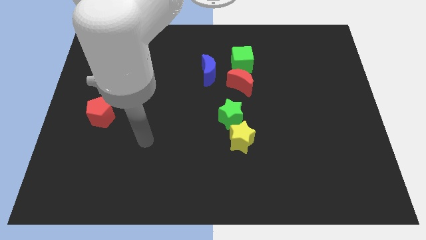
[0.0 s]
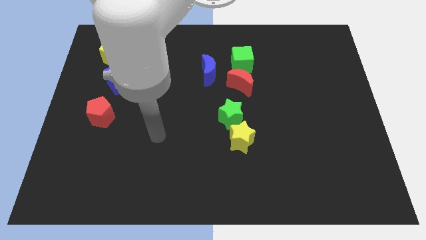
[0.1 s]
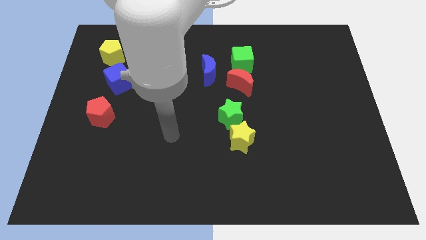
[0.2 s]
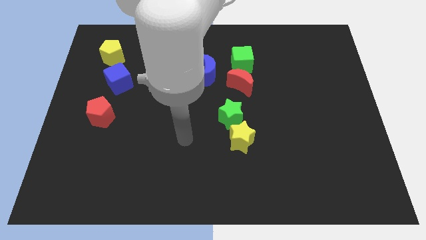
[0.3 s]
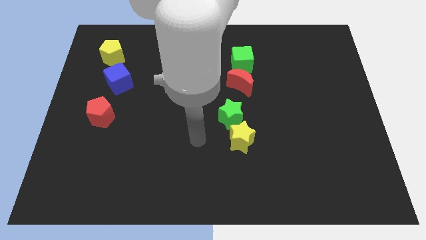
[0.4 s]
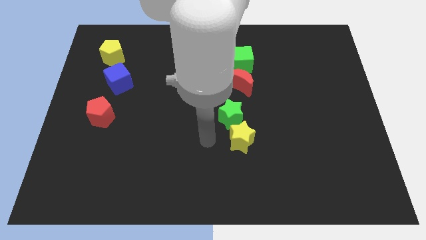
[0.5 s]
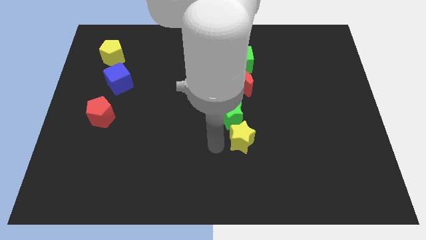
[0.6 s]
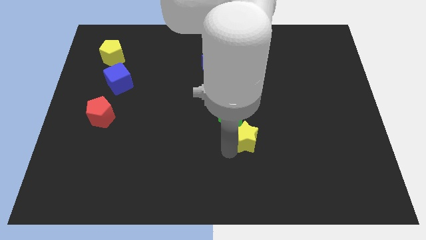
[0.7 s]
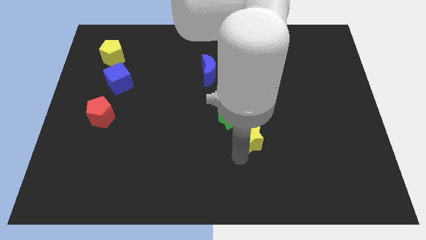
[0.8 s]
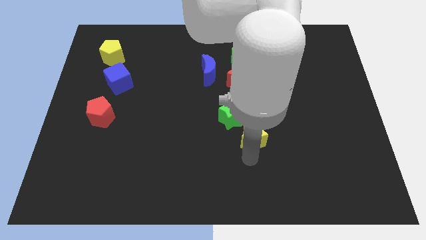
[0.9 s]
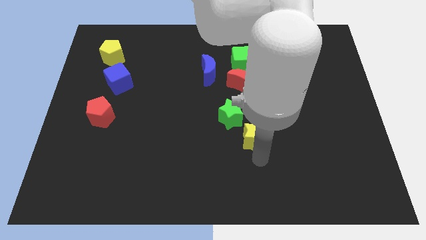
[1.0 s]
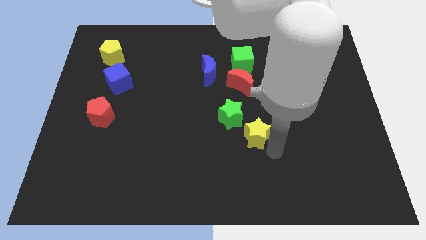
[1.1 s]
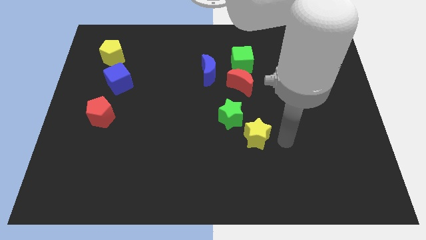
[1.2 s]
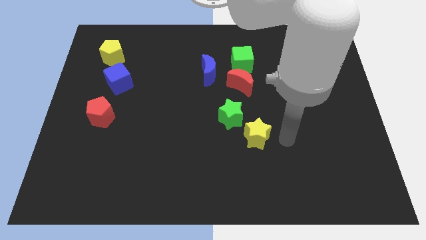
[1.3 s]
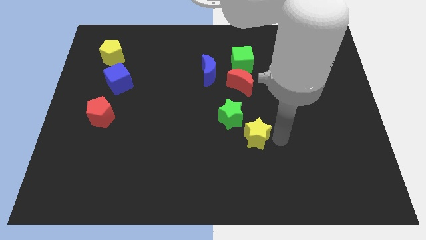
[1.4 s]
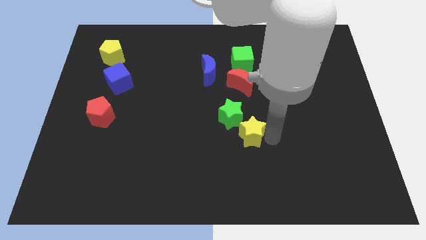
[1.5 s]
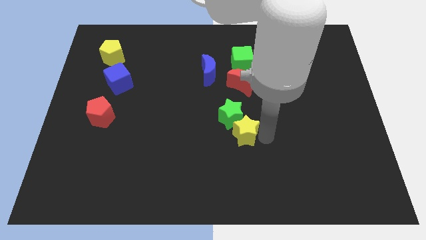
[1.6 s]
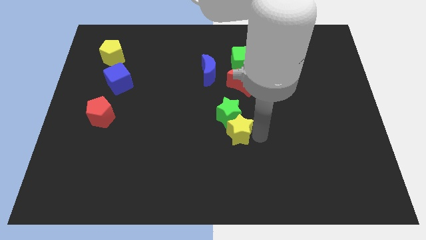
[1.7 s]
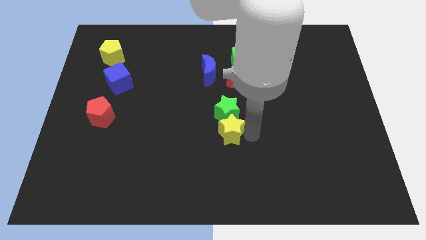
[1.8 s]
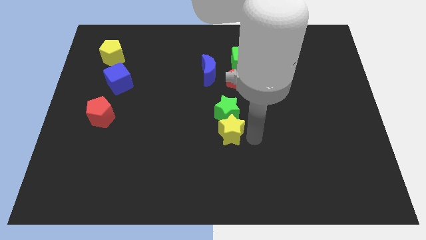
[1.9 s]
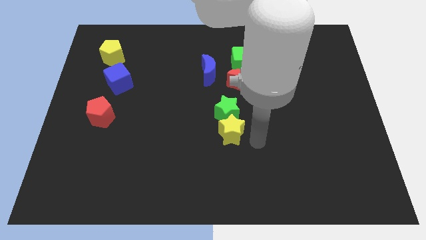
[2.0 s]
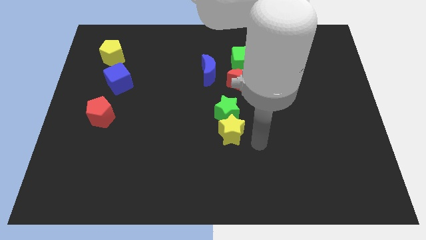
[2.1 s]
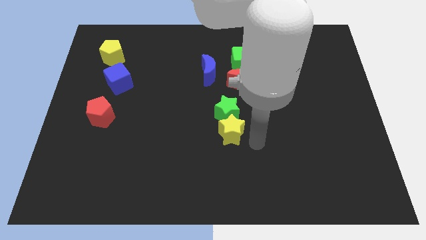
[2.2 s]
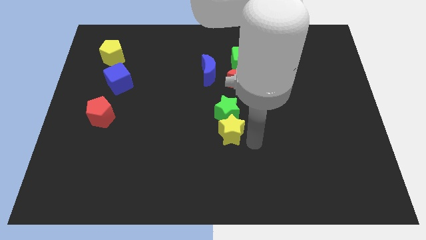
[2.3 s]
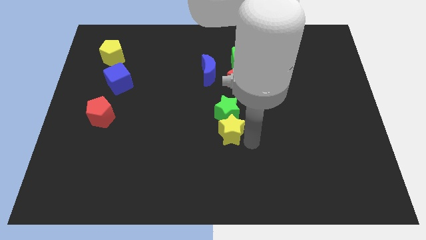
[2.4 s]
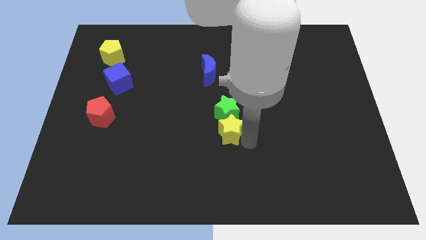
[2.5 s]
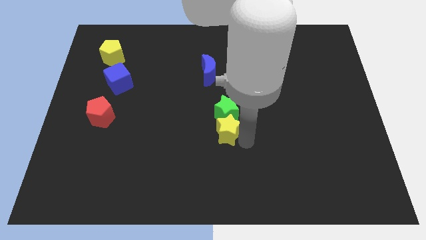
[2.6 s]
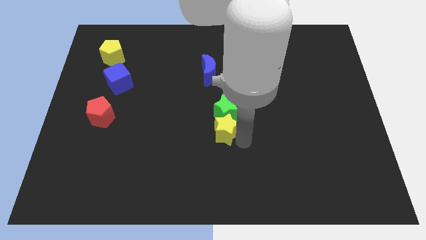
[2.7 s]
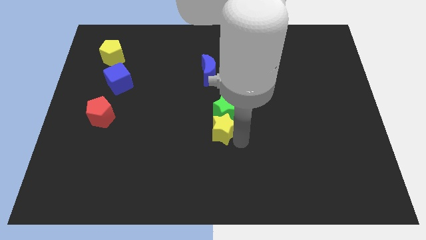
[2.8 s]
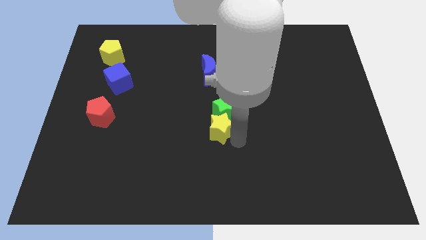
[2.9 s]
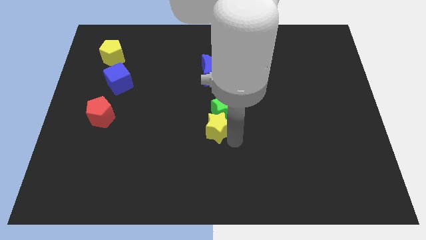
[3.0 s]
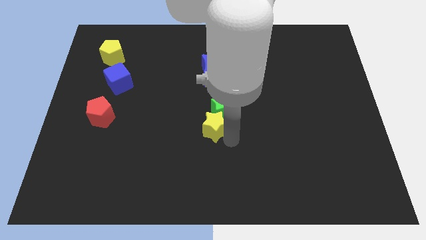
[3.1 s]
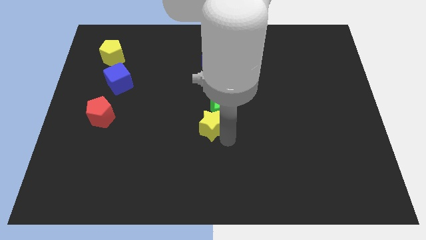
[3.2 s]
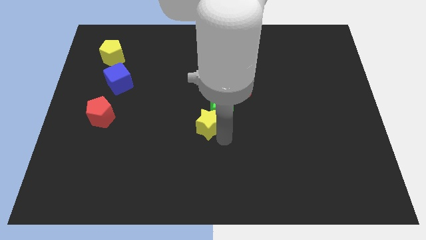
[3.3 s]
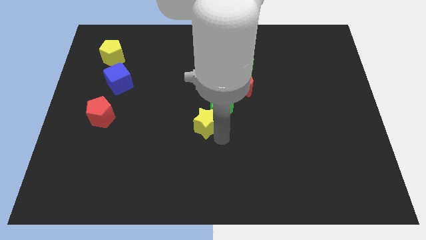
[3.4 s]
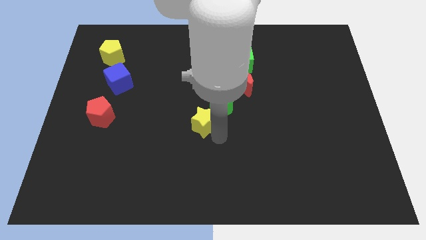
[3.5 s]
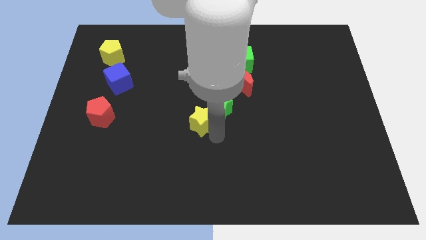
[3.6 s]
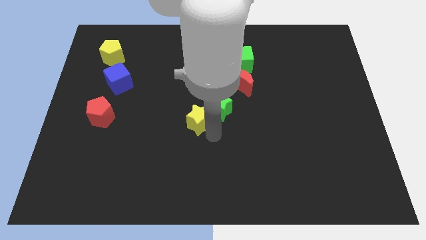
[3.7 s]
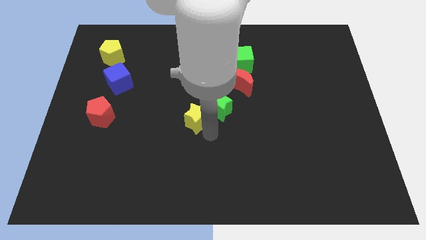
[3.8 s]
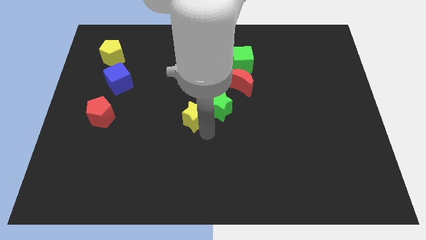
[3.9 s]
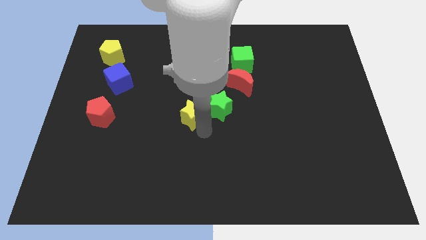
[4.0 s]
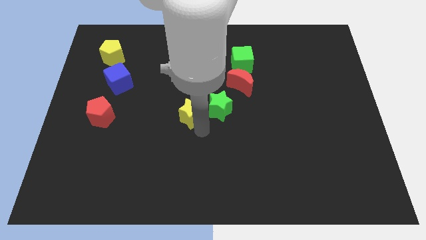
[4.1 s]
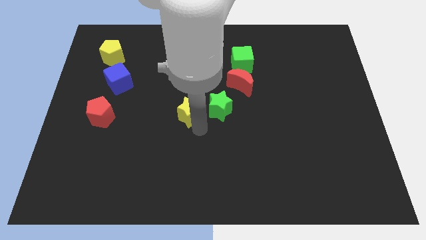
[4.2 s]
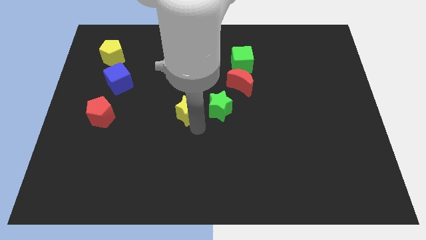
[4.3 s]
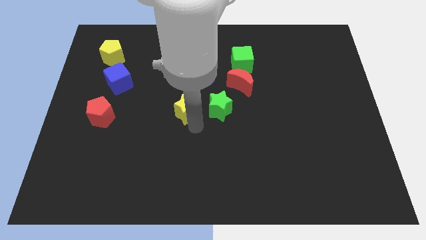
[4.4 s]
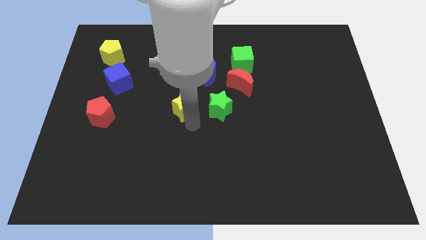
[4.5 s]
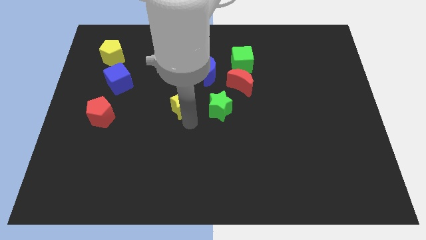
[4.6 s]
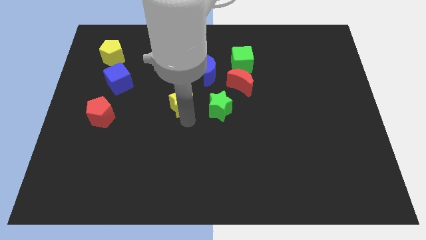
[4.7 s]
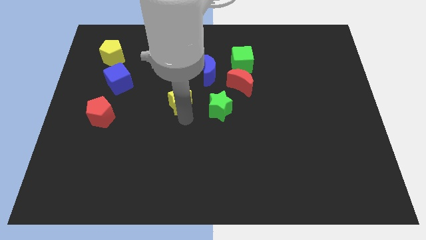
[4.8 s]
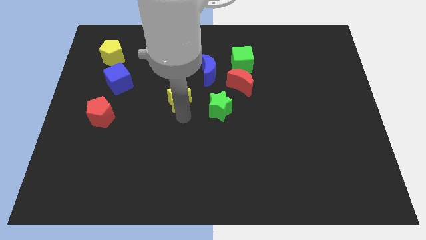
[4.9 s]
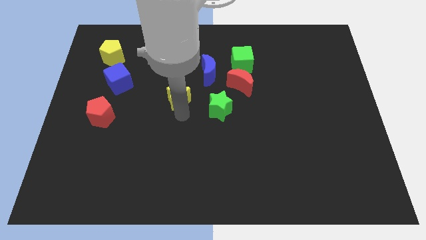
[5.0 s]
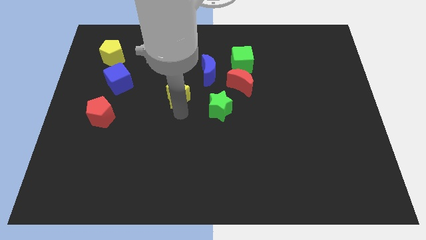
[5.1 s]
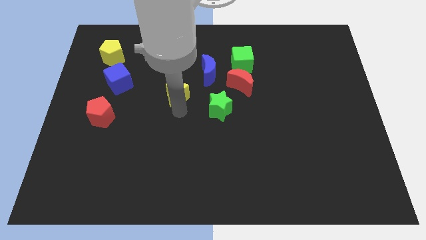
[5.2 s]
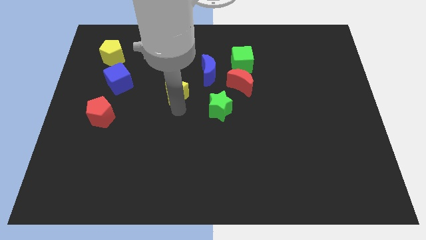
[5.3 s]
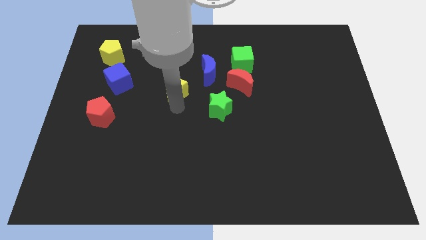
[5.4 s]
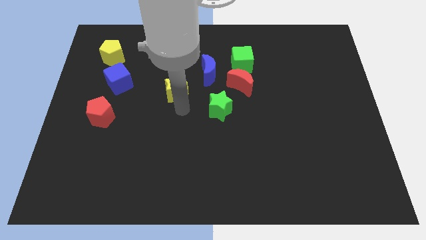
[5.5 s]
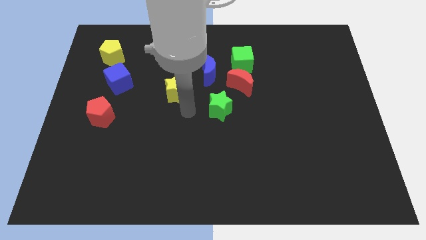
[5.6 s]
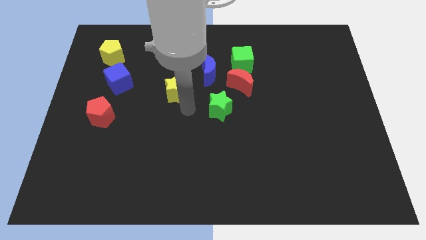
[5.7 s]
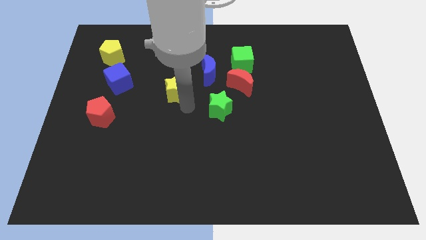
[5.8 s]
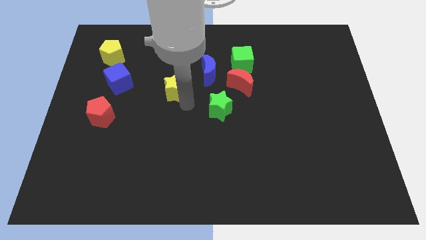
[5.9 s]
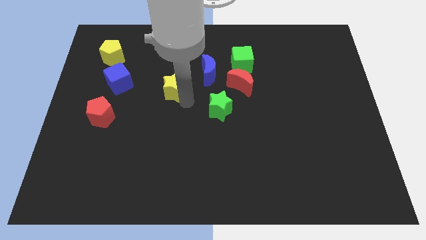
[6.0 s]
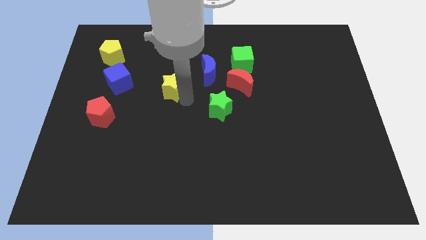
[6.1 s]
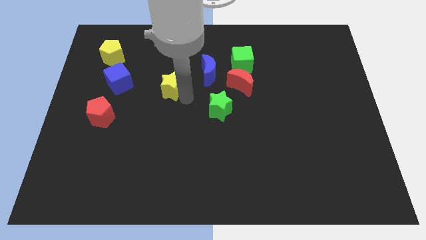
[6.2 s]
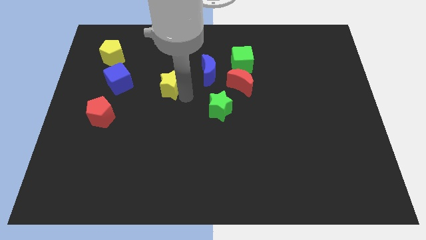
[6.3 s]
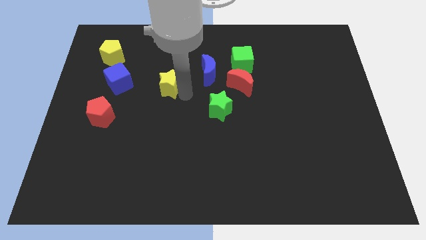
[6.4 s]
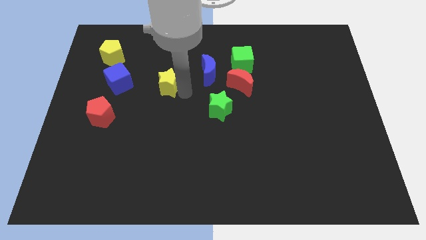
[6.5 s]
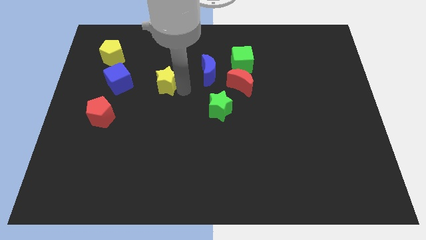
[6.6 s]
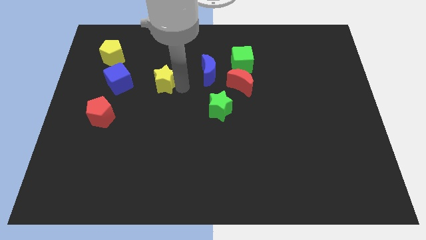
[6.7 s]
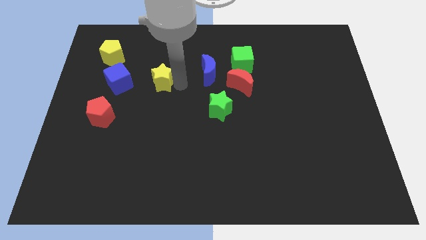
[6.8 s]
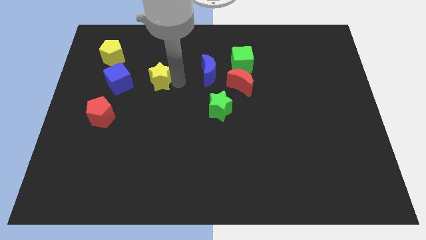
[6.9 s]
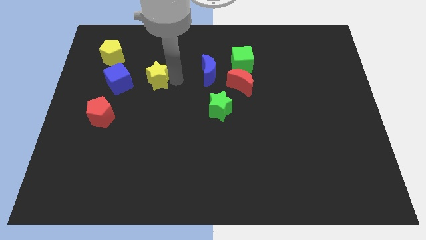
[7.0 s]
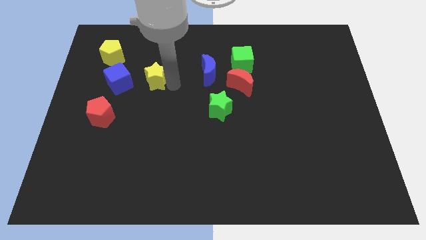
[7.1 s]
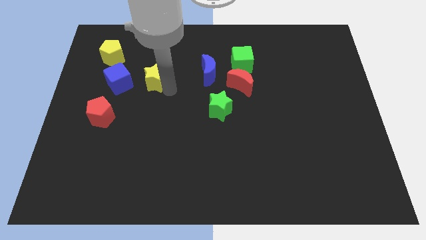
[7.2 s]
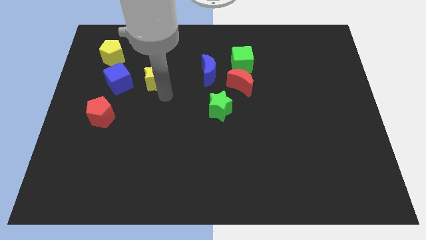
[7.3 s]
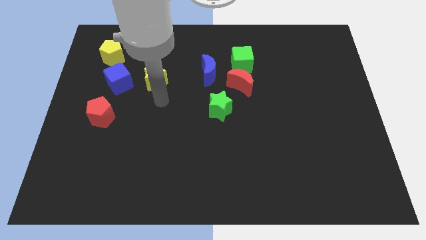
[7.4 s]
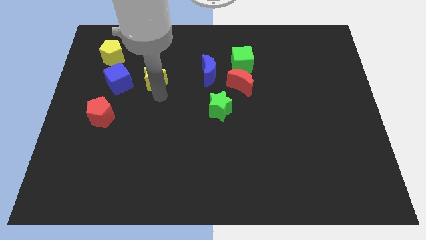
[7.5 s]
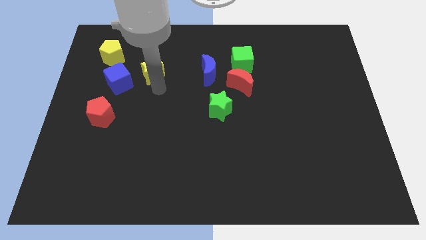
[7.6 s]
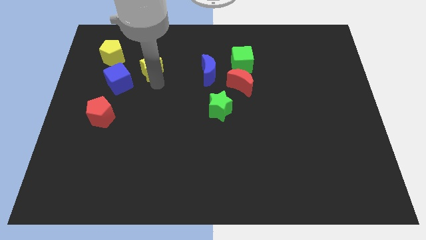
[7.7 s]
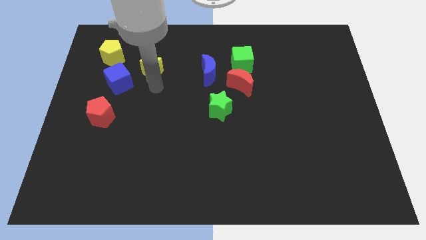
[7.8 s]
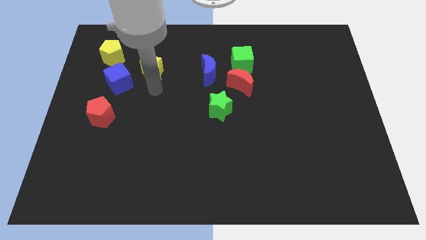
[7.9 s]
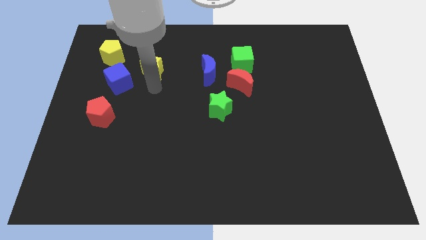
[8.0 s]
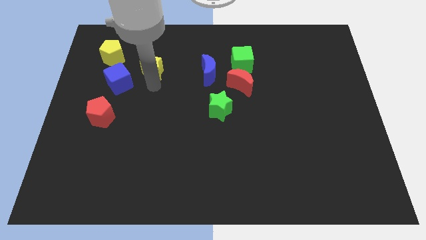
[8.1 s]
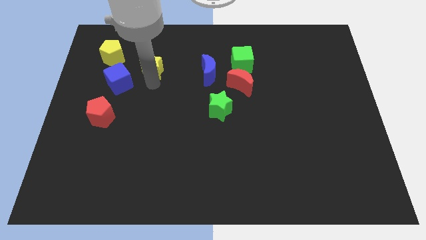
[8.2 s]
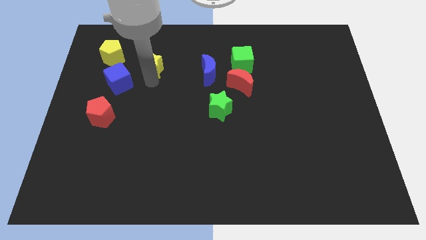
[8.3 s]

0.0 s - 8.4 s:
push the yellow star to the right side of the yellow pentagon
